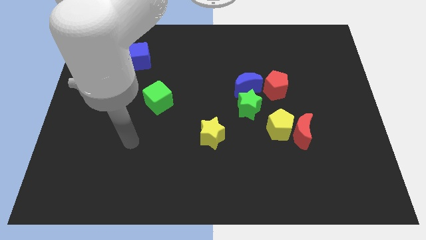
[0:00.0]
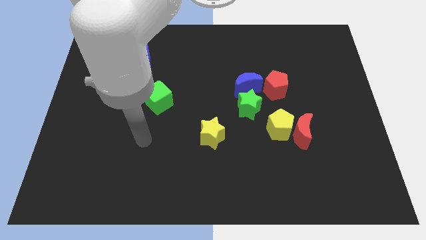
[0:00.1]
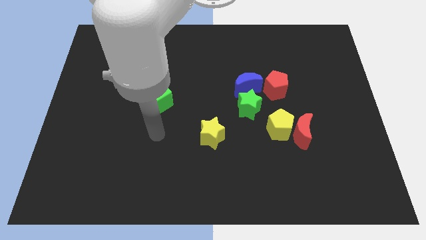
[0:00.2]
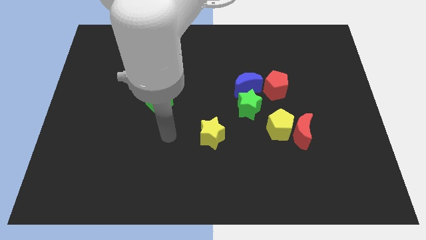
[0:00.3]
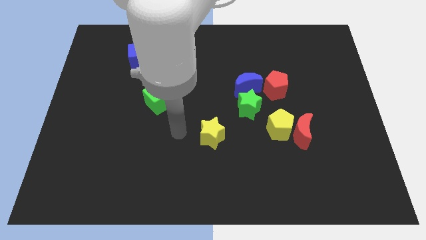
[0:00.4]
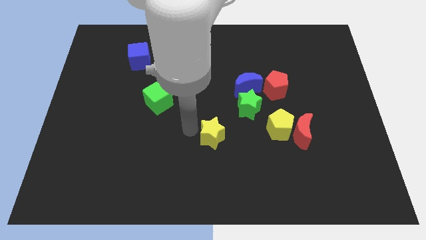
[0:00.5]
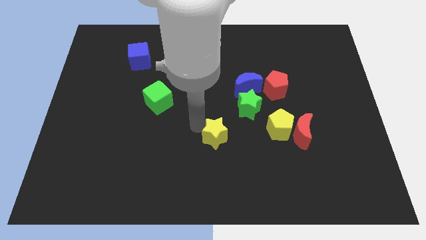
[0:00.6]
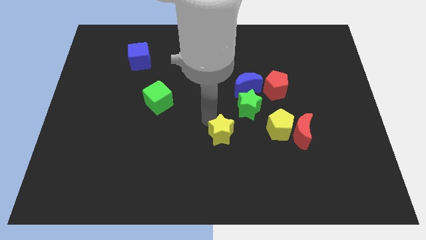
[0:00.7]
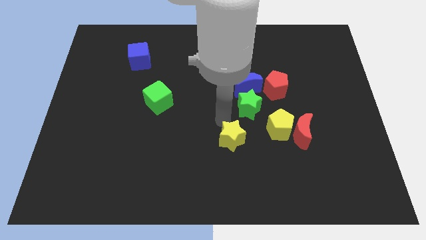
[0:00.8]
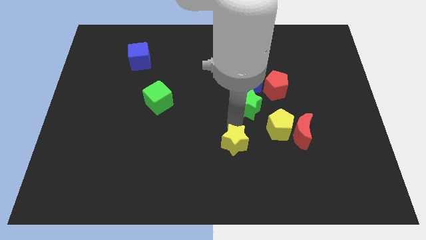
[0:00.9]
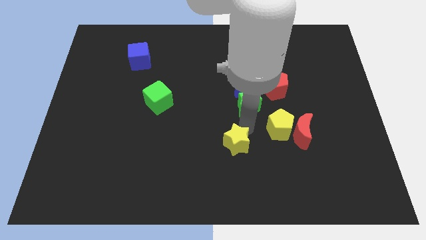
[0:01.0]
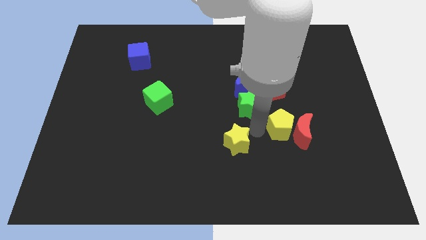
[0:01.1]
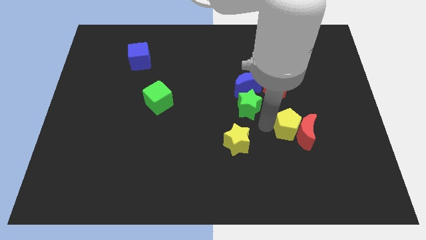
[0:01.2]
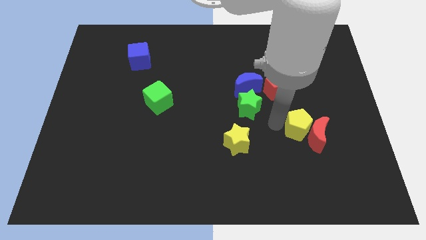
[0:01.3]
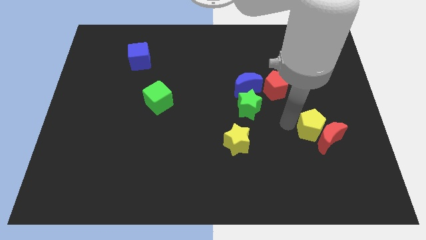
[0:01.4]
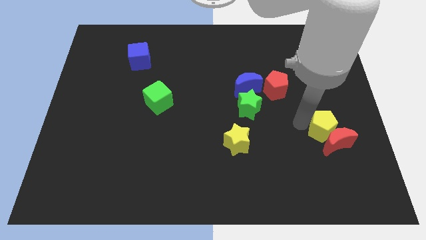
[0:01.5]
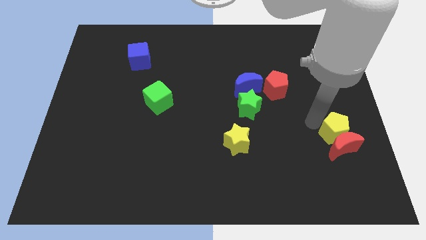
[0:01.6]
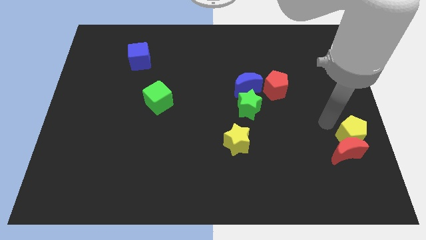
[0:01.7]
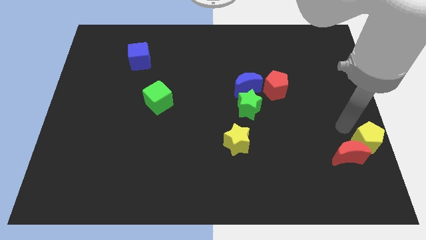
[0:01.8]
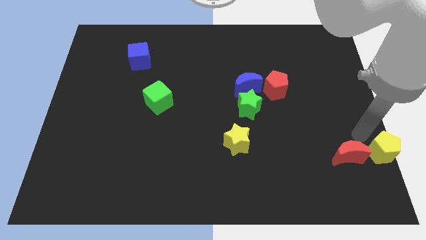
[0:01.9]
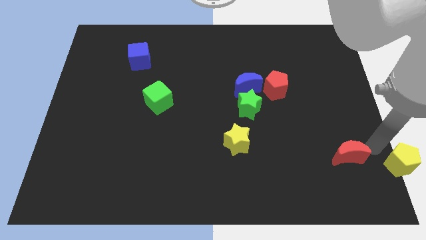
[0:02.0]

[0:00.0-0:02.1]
separate the red moon from the yellow pentagon

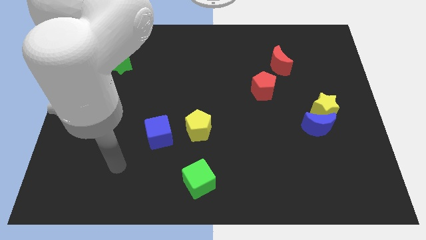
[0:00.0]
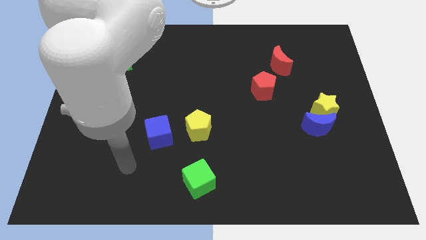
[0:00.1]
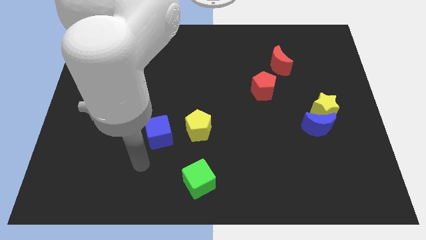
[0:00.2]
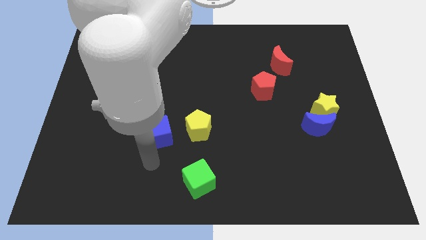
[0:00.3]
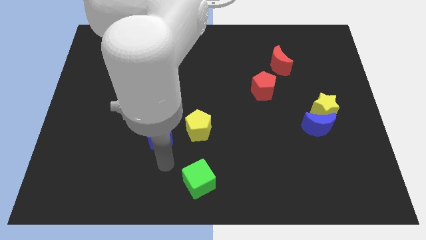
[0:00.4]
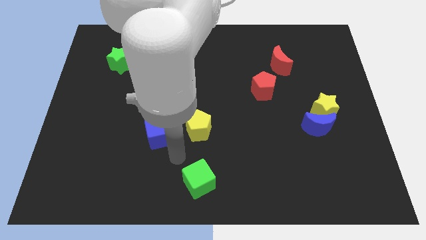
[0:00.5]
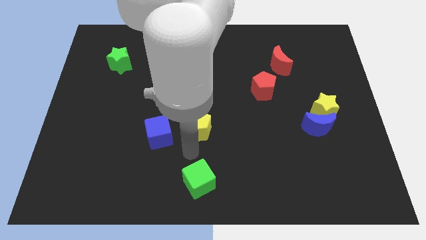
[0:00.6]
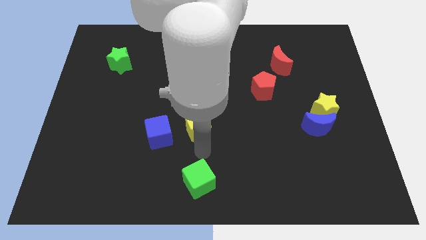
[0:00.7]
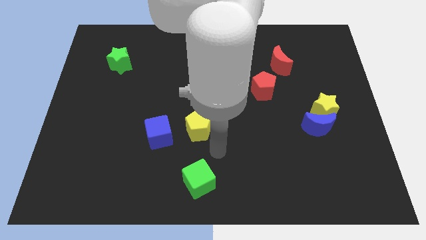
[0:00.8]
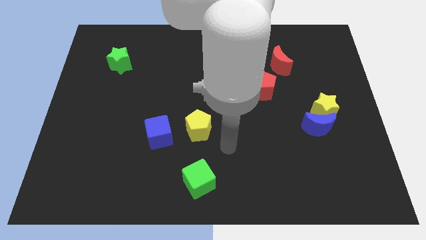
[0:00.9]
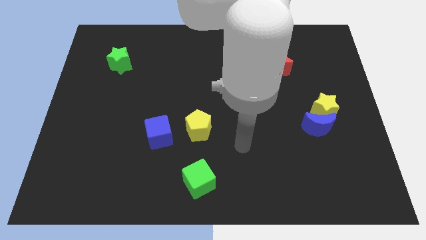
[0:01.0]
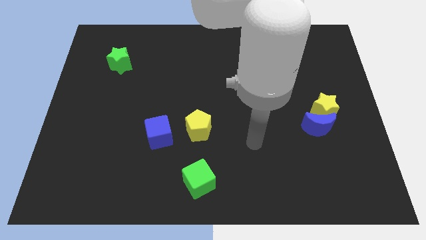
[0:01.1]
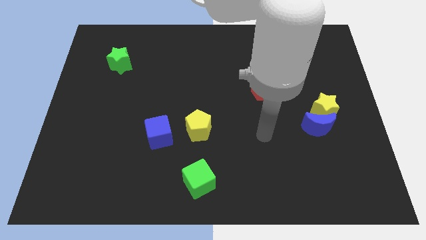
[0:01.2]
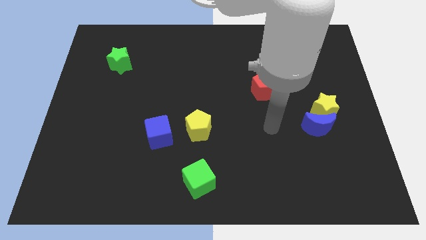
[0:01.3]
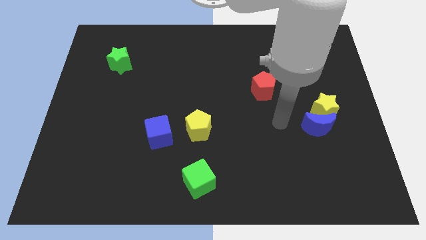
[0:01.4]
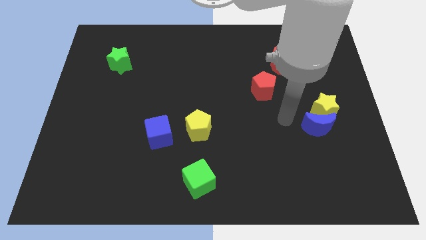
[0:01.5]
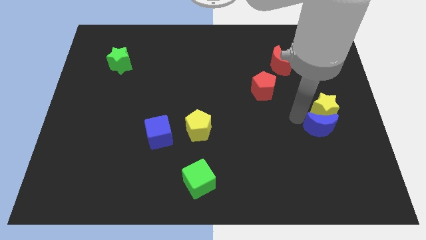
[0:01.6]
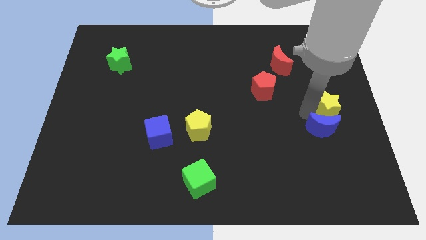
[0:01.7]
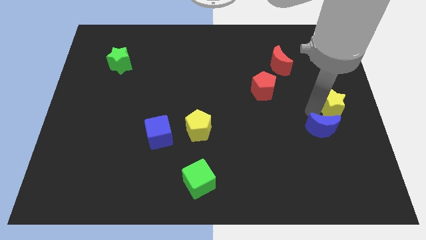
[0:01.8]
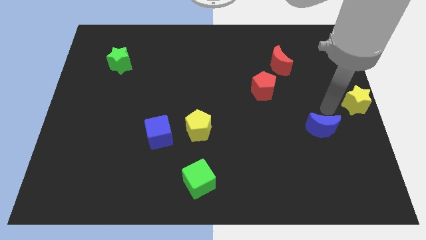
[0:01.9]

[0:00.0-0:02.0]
separate the blue moon from the yellow star

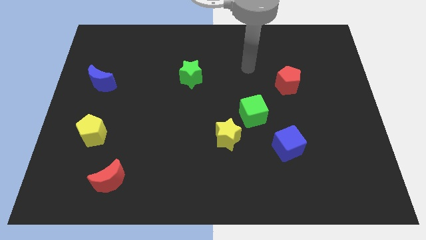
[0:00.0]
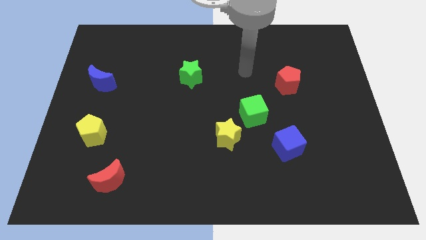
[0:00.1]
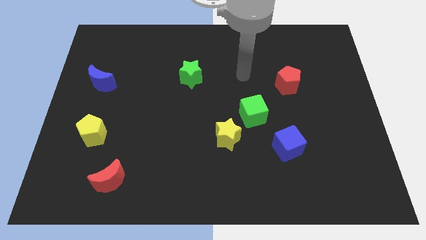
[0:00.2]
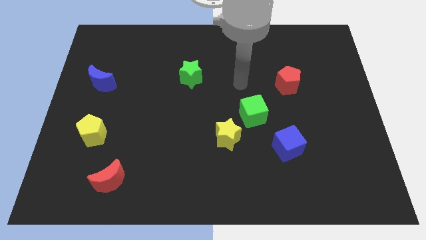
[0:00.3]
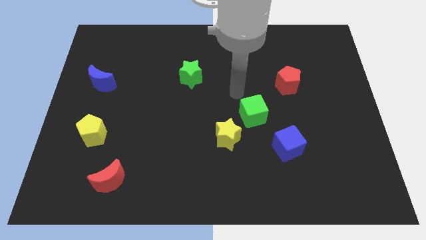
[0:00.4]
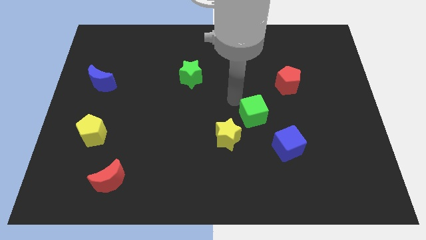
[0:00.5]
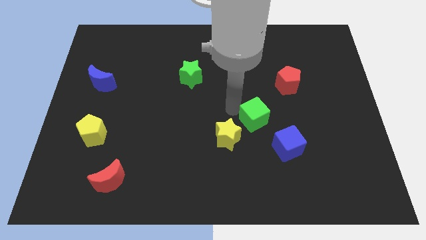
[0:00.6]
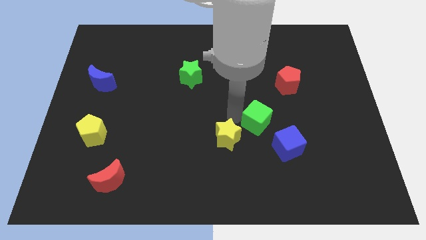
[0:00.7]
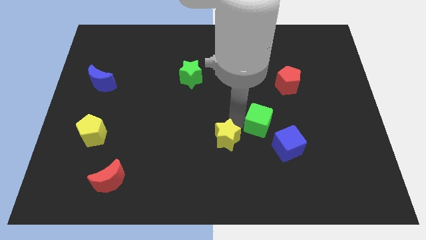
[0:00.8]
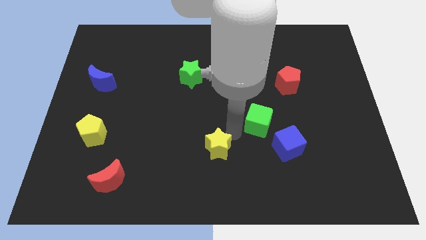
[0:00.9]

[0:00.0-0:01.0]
move the green cube away from the yellow star

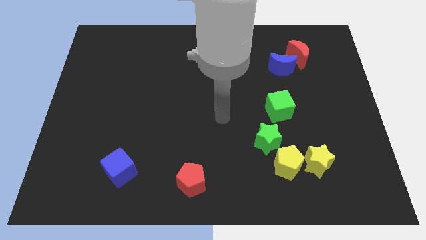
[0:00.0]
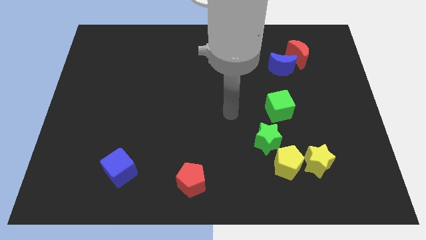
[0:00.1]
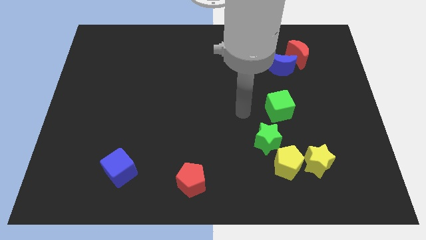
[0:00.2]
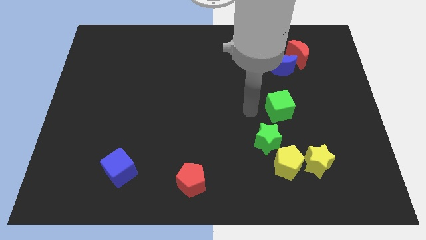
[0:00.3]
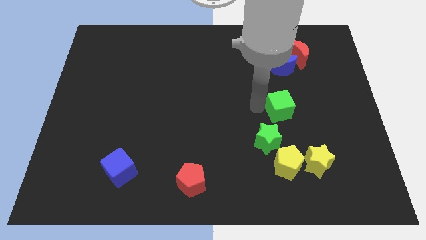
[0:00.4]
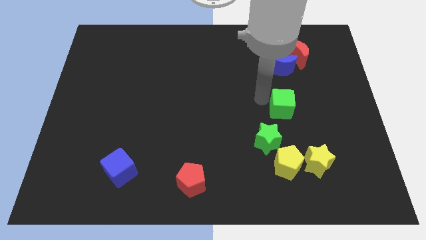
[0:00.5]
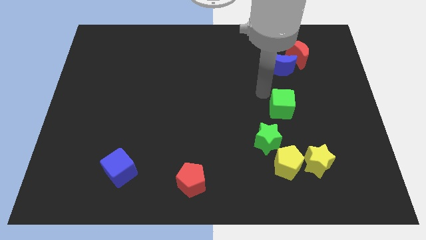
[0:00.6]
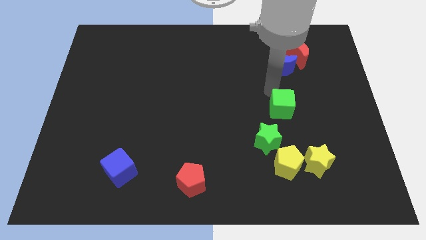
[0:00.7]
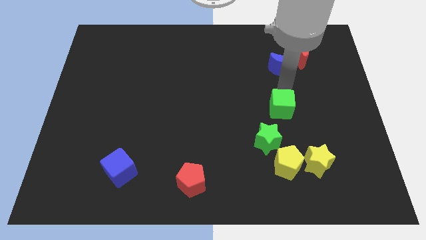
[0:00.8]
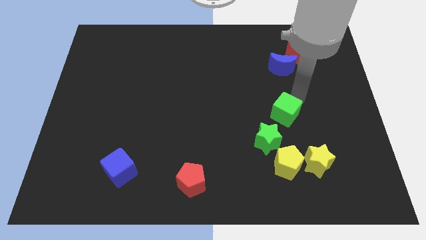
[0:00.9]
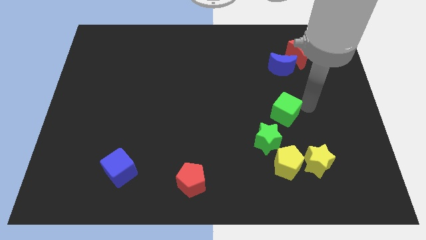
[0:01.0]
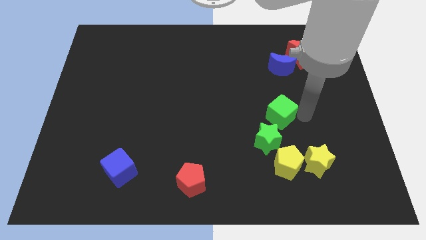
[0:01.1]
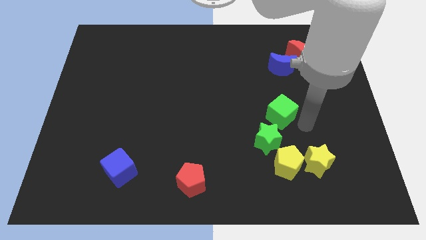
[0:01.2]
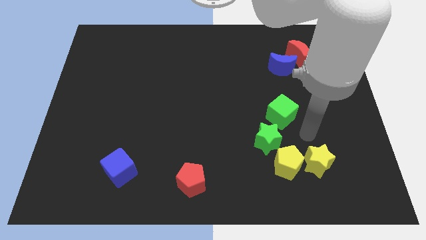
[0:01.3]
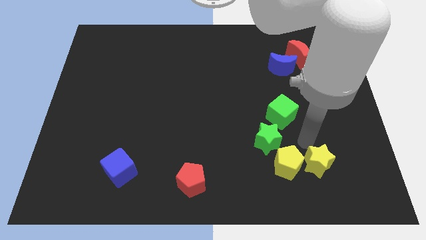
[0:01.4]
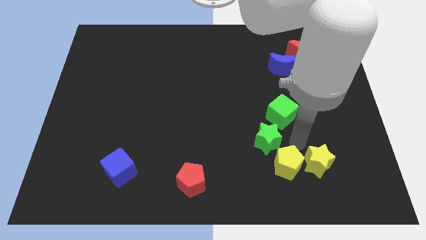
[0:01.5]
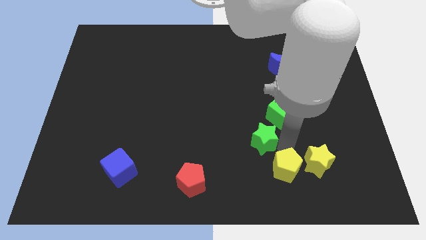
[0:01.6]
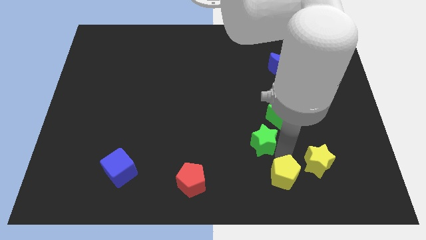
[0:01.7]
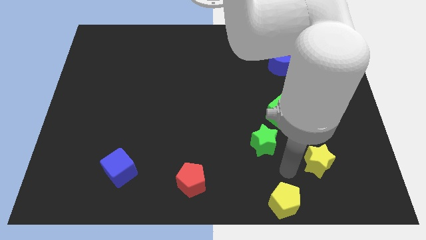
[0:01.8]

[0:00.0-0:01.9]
separate the yellow star from the yellow pentagon

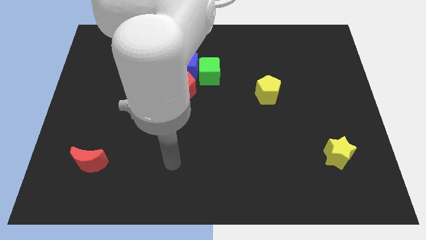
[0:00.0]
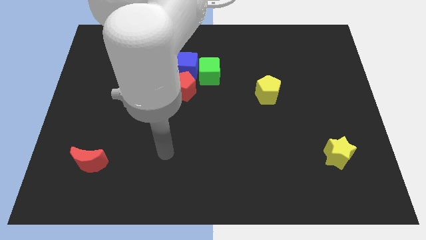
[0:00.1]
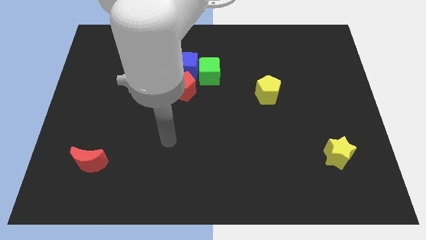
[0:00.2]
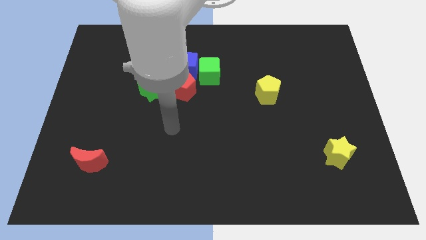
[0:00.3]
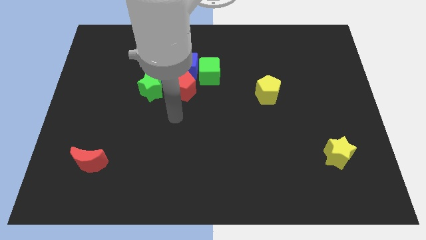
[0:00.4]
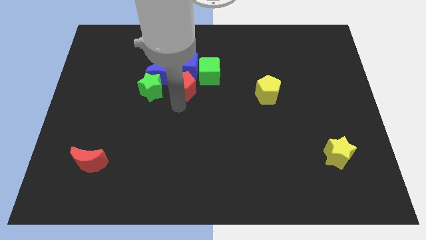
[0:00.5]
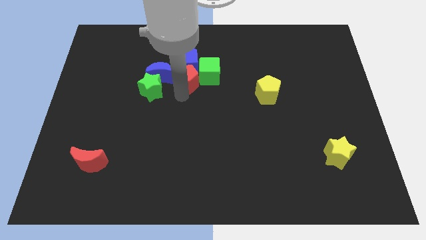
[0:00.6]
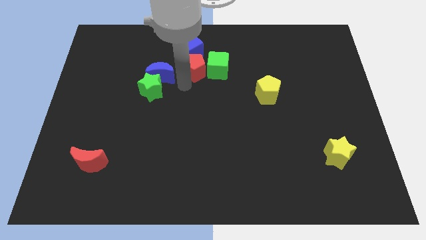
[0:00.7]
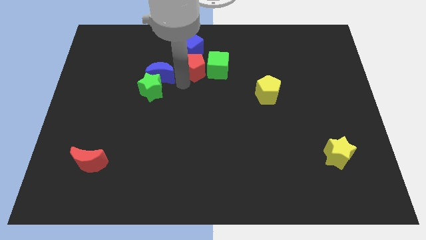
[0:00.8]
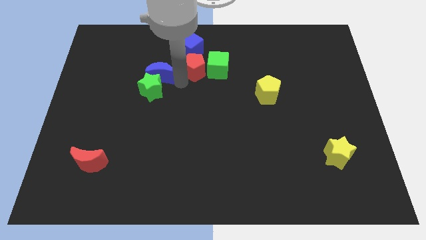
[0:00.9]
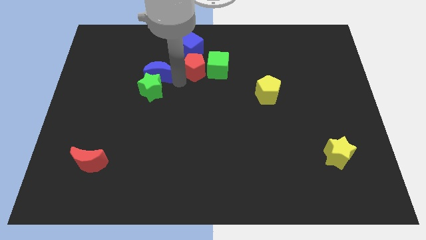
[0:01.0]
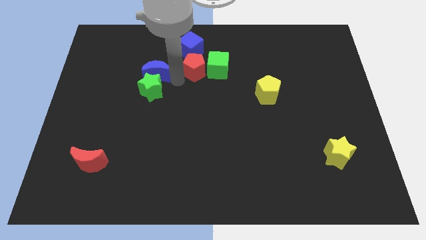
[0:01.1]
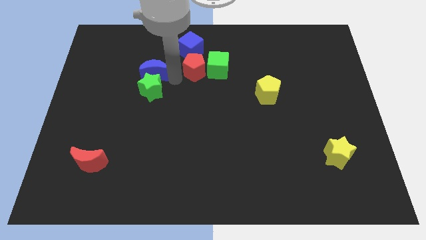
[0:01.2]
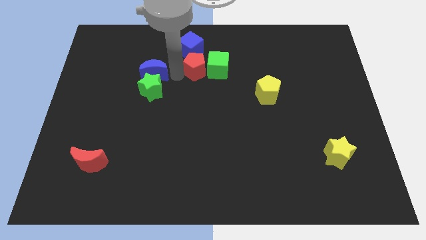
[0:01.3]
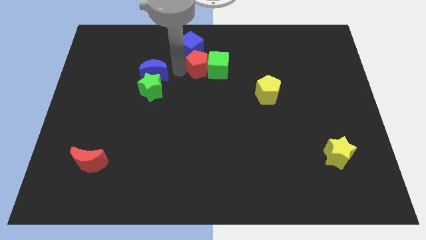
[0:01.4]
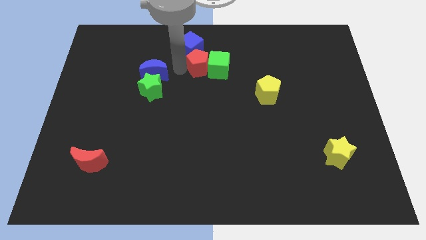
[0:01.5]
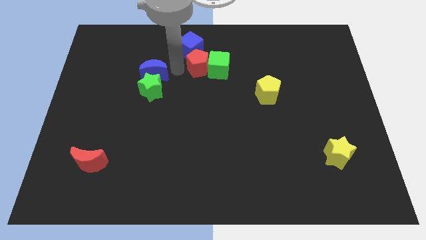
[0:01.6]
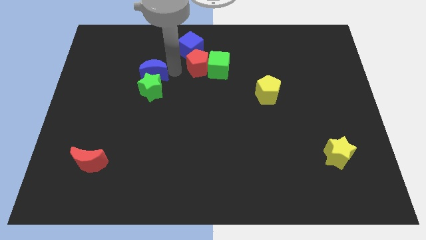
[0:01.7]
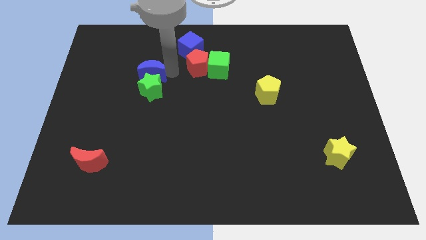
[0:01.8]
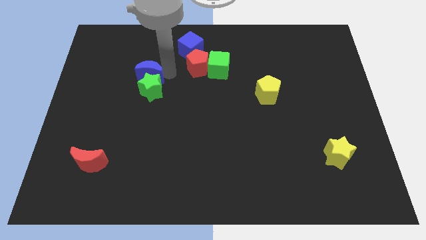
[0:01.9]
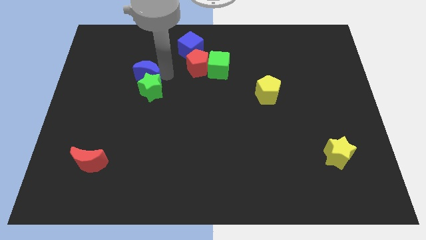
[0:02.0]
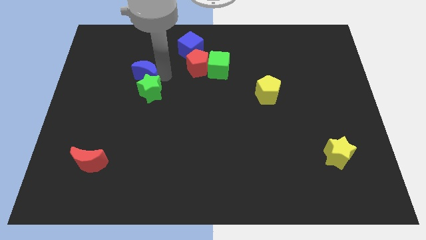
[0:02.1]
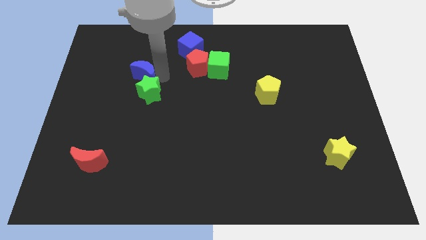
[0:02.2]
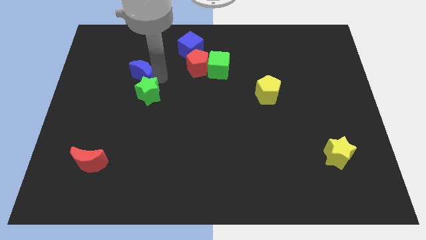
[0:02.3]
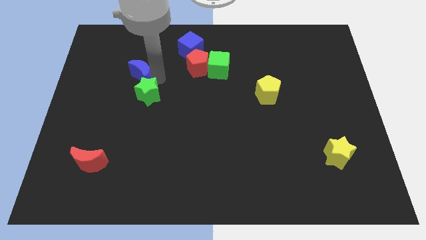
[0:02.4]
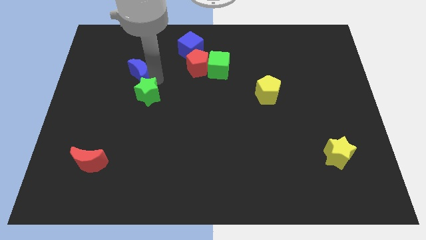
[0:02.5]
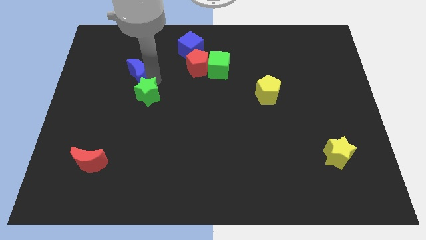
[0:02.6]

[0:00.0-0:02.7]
pull the blue moon apart from the green star, red pentagon, and blue cube
